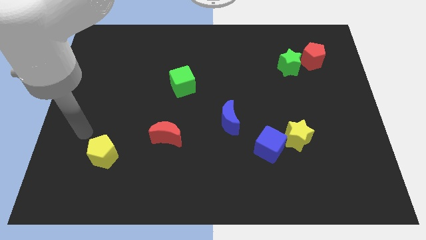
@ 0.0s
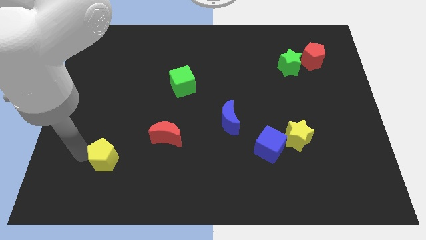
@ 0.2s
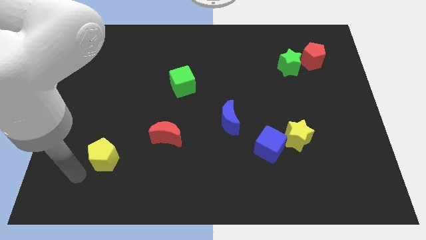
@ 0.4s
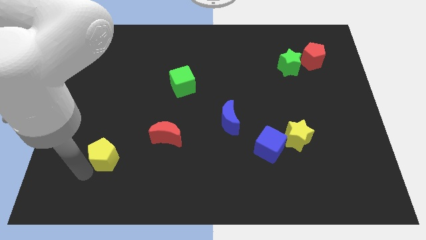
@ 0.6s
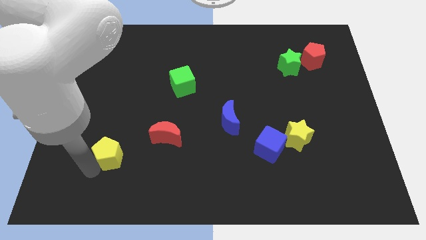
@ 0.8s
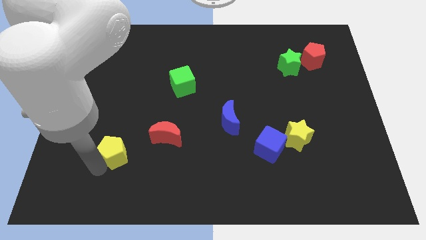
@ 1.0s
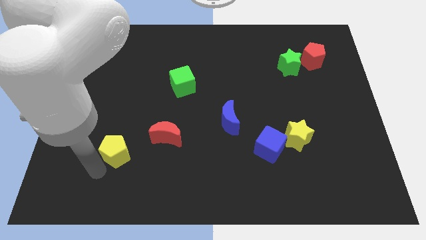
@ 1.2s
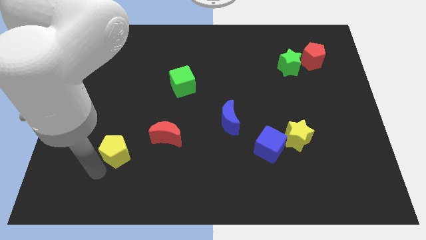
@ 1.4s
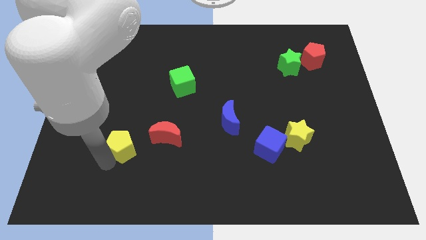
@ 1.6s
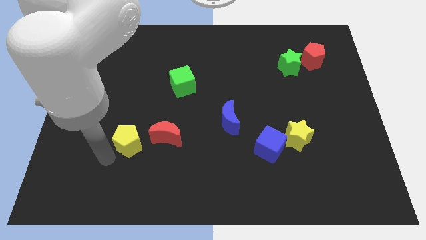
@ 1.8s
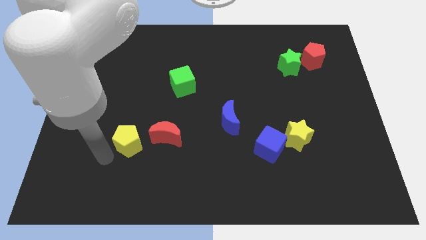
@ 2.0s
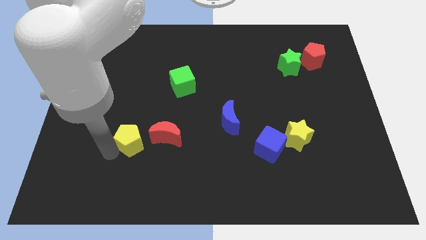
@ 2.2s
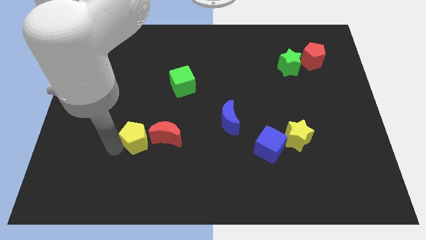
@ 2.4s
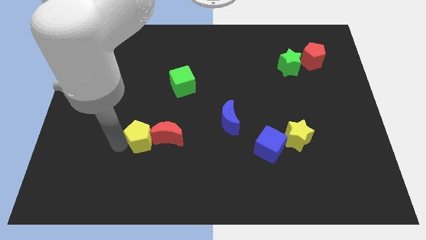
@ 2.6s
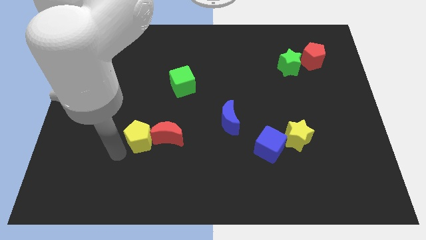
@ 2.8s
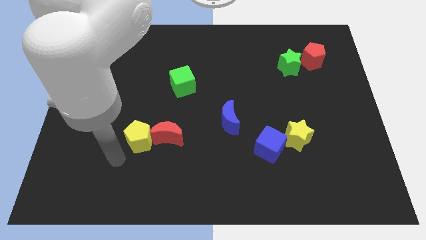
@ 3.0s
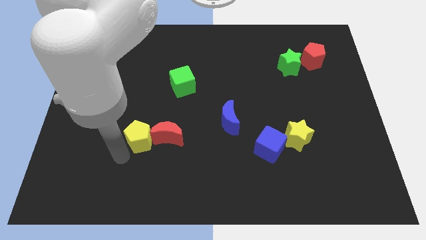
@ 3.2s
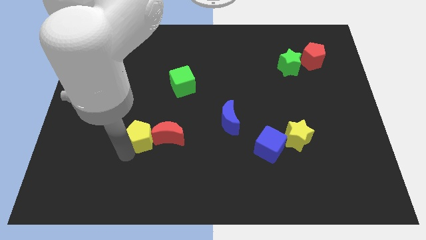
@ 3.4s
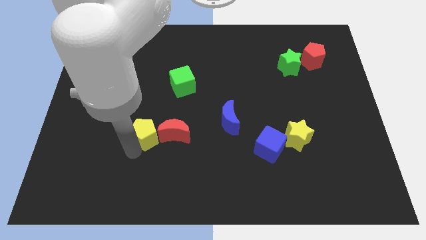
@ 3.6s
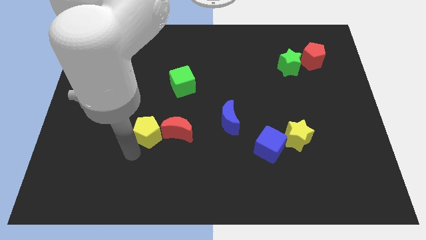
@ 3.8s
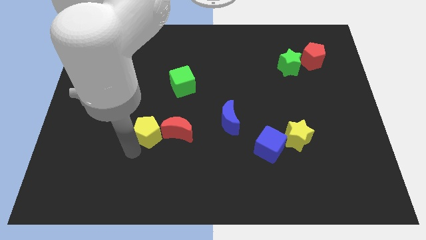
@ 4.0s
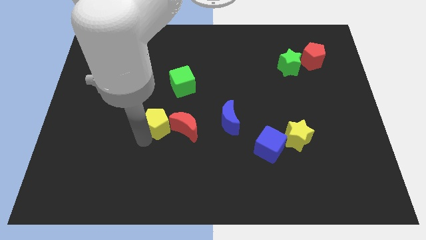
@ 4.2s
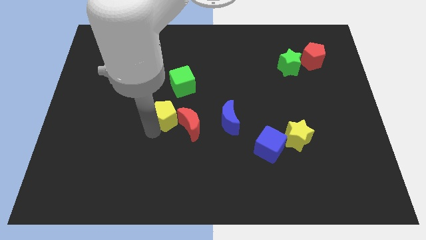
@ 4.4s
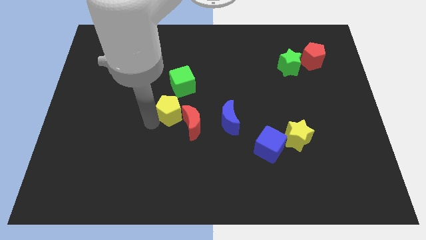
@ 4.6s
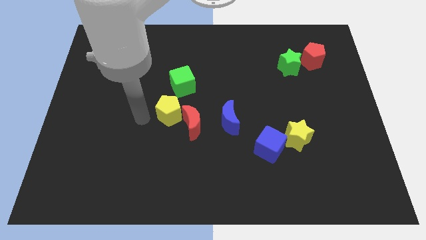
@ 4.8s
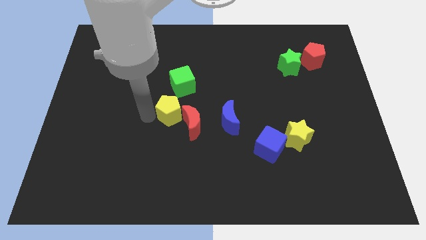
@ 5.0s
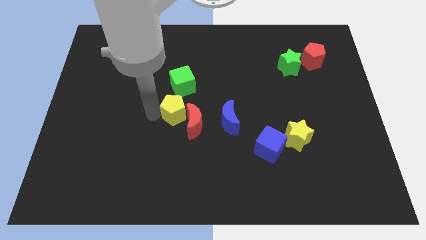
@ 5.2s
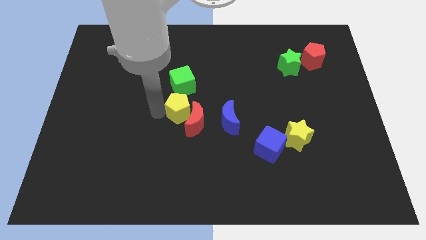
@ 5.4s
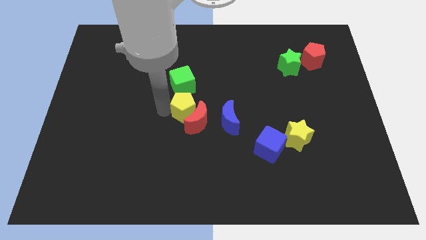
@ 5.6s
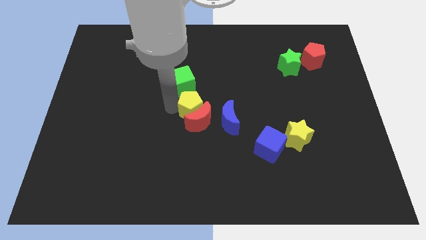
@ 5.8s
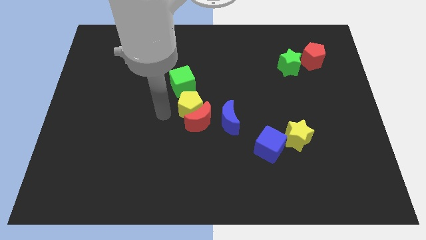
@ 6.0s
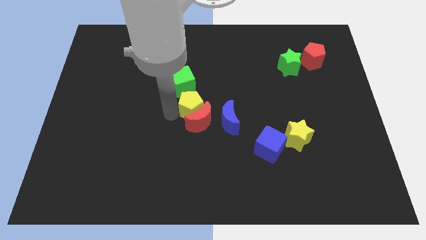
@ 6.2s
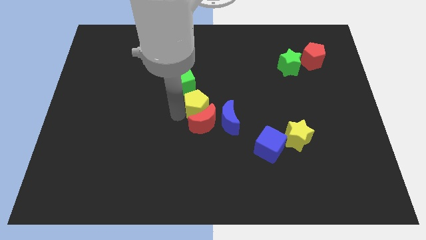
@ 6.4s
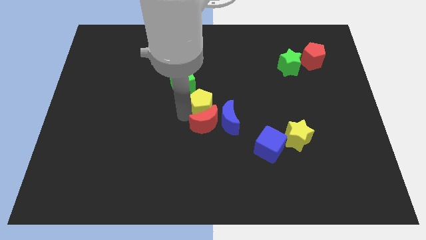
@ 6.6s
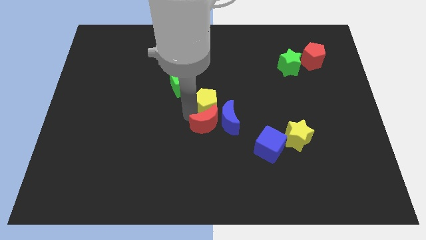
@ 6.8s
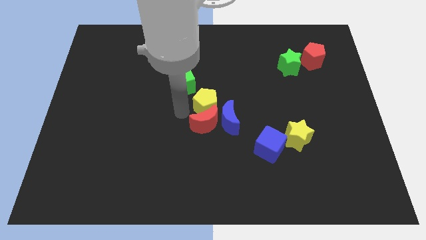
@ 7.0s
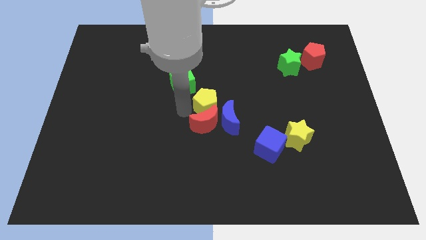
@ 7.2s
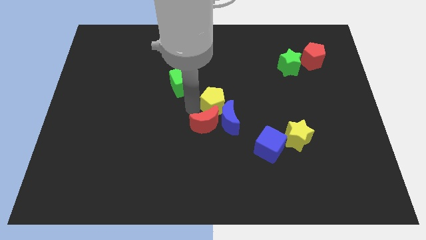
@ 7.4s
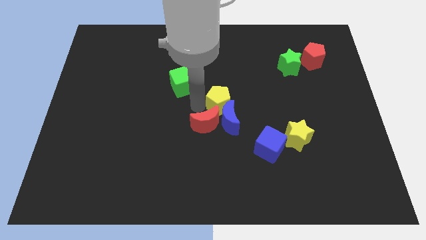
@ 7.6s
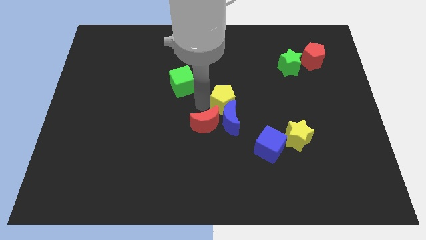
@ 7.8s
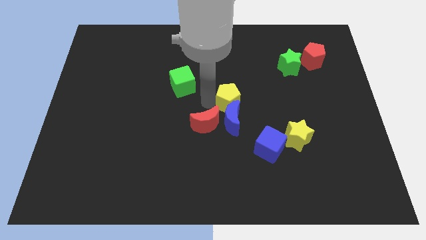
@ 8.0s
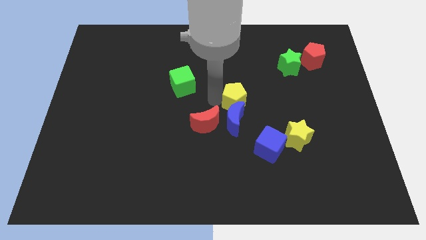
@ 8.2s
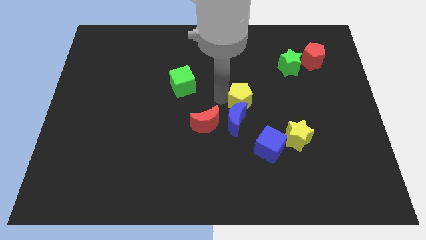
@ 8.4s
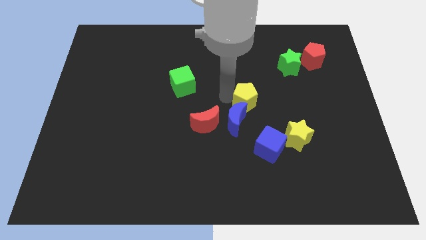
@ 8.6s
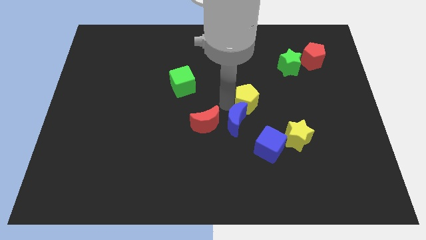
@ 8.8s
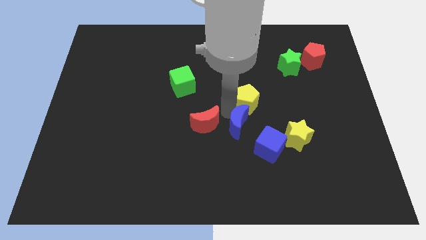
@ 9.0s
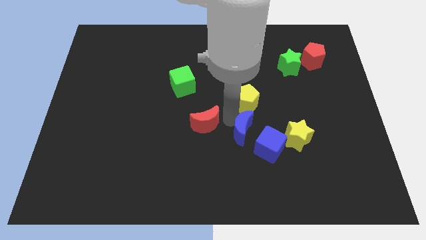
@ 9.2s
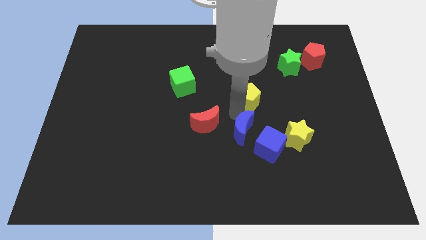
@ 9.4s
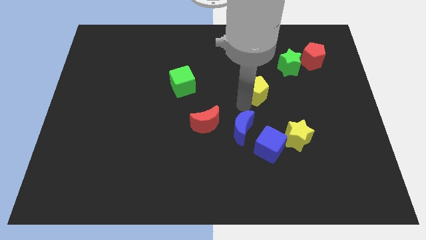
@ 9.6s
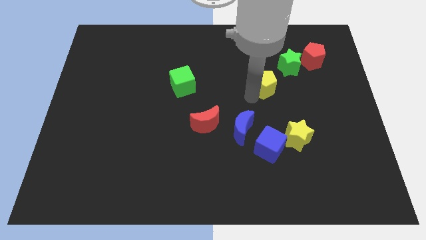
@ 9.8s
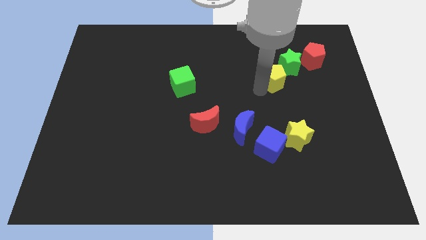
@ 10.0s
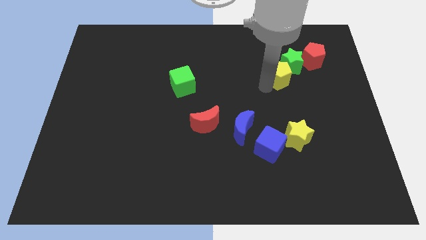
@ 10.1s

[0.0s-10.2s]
put the yellow pentagon to the green star

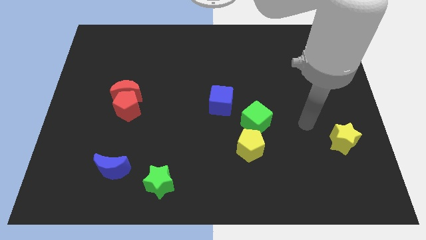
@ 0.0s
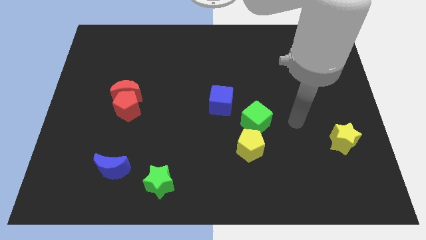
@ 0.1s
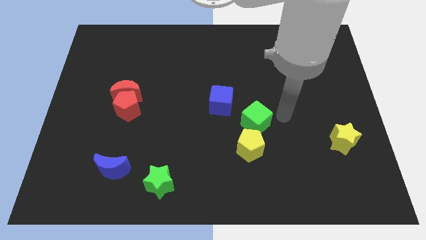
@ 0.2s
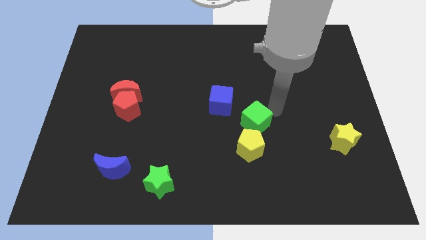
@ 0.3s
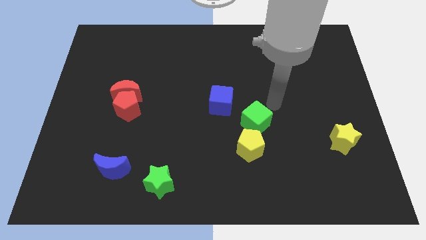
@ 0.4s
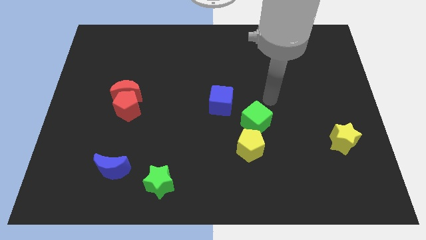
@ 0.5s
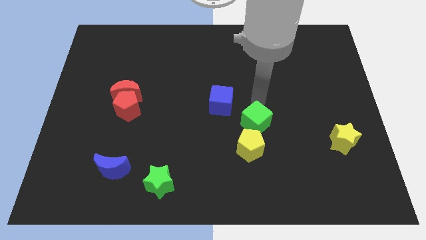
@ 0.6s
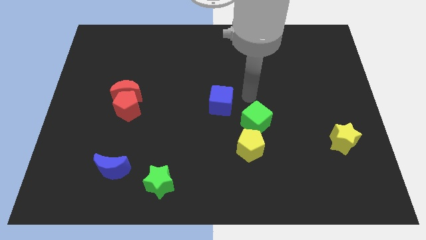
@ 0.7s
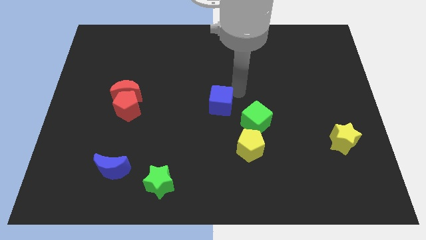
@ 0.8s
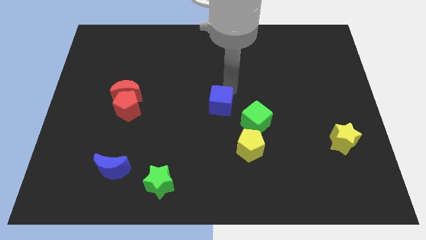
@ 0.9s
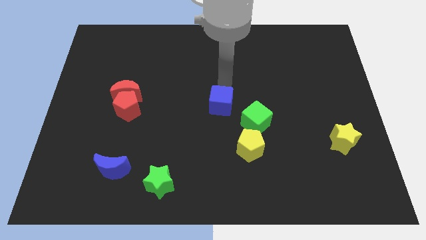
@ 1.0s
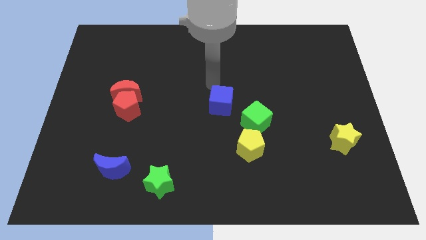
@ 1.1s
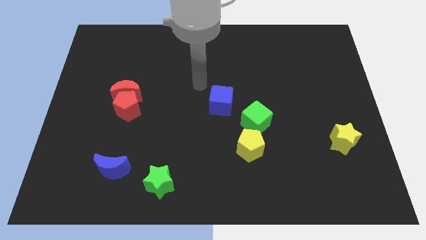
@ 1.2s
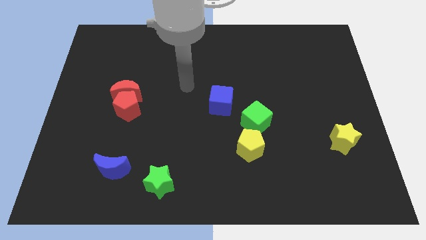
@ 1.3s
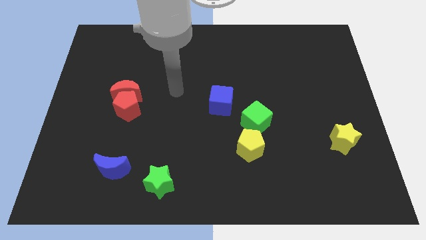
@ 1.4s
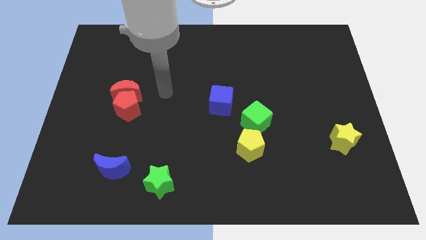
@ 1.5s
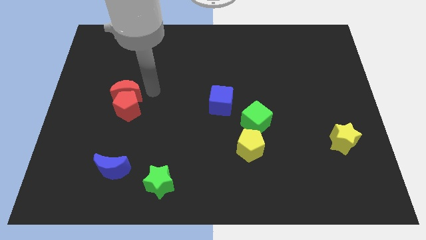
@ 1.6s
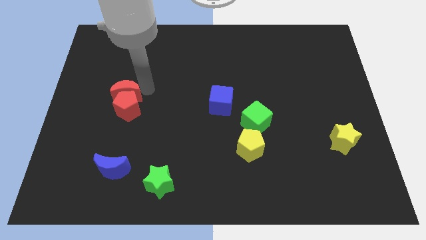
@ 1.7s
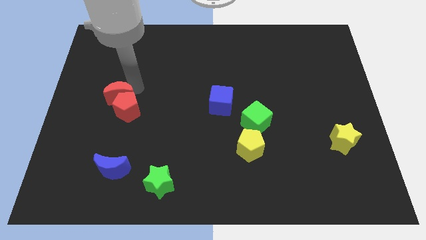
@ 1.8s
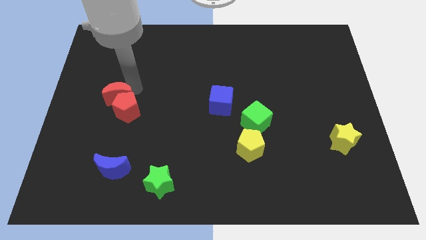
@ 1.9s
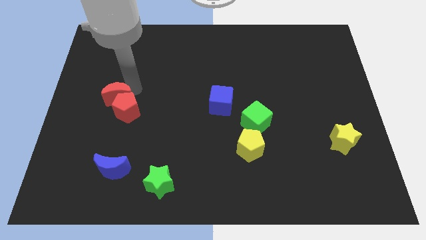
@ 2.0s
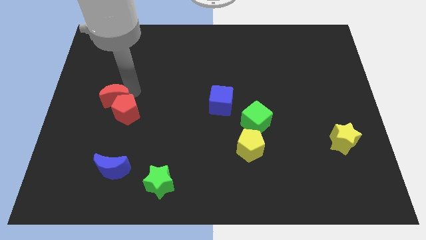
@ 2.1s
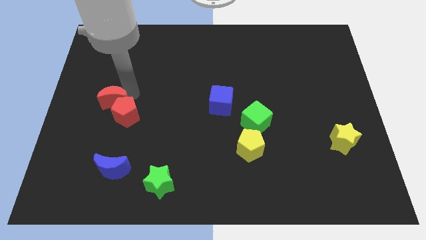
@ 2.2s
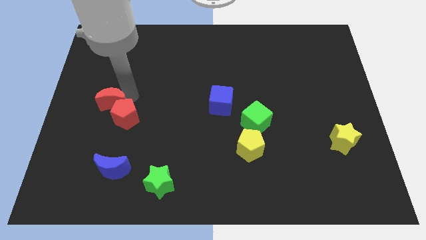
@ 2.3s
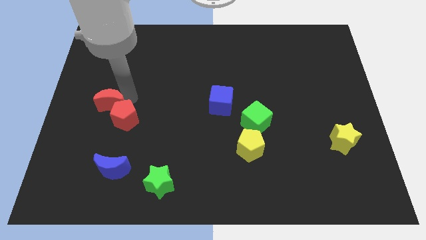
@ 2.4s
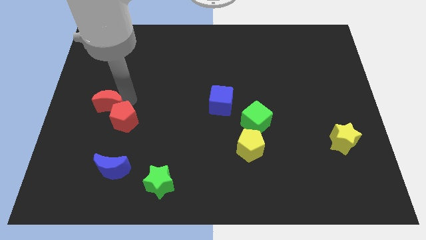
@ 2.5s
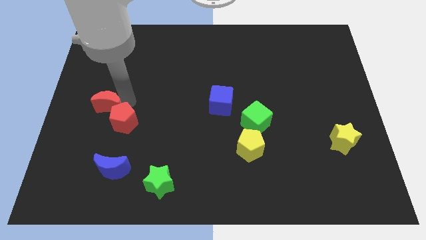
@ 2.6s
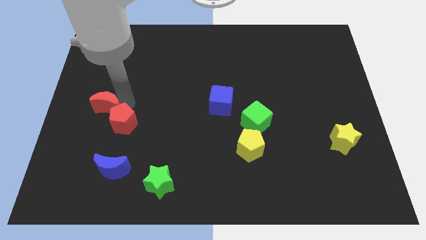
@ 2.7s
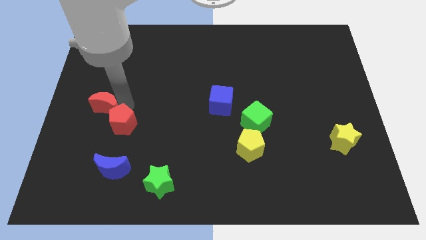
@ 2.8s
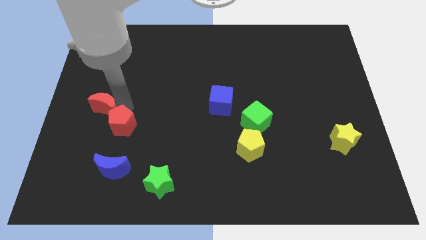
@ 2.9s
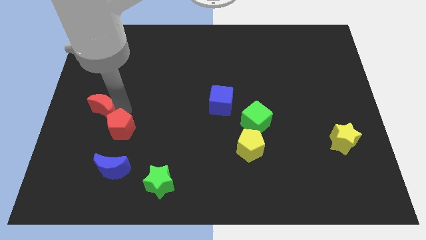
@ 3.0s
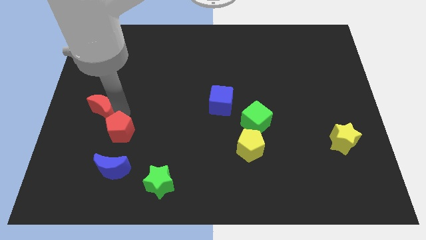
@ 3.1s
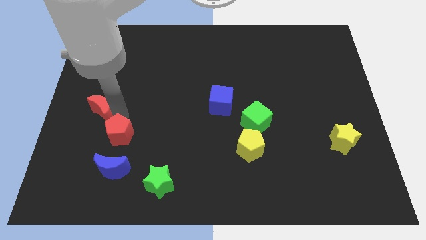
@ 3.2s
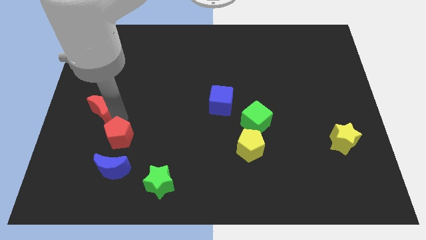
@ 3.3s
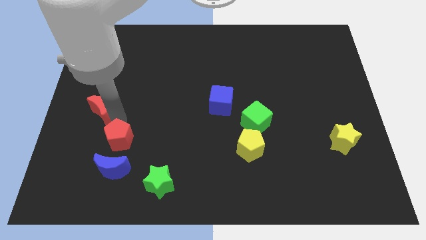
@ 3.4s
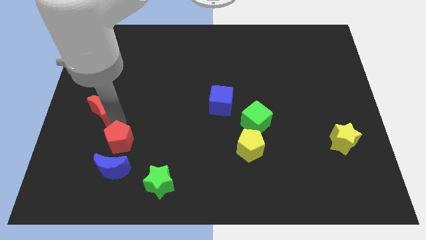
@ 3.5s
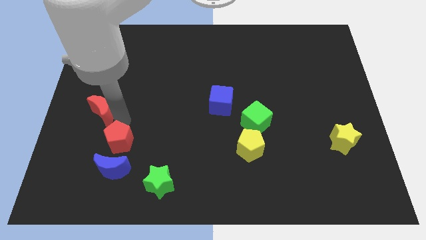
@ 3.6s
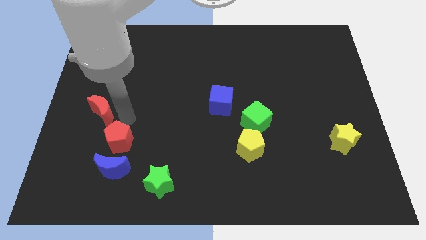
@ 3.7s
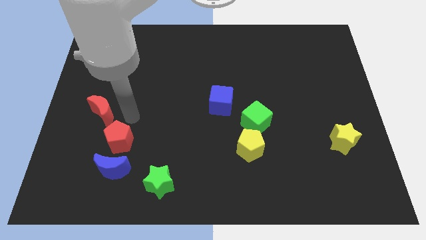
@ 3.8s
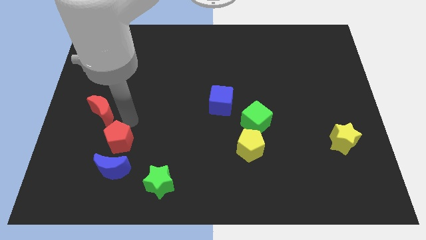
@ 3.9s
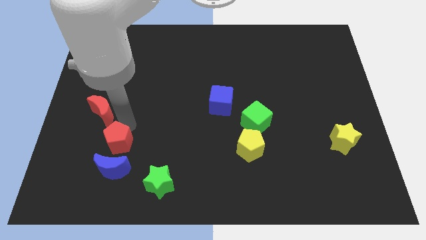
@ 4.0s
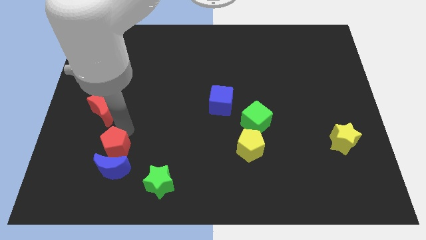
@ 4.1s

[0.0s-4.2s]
put the red pentagon to the blue moon
